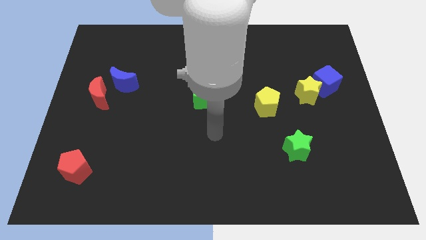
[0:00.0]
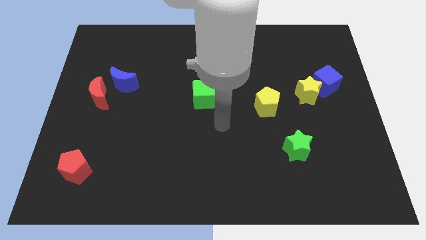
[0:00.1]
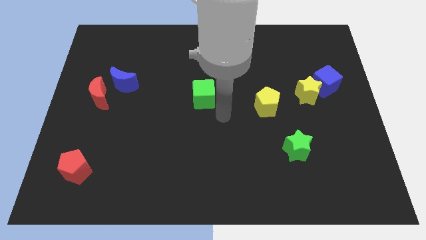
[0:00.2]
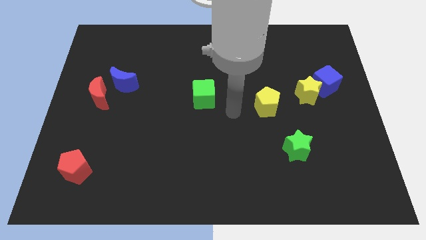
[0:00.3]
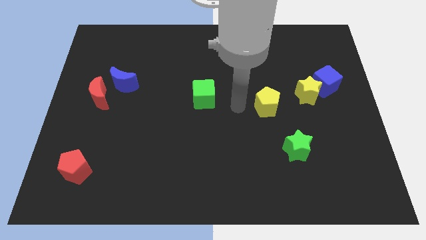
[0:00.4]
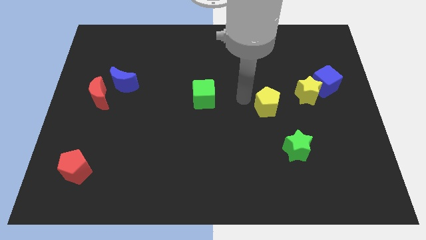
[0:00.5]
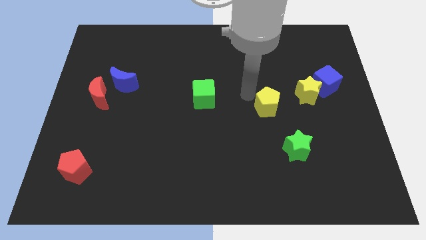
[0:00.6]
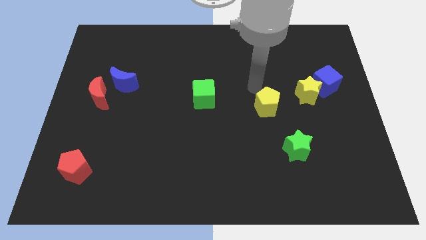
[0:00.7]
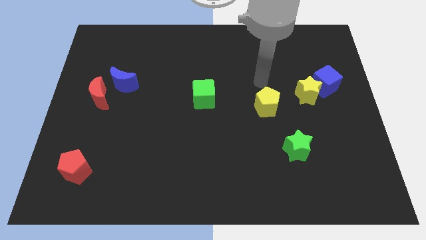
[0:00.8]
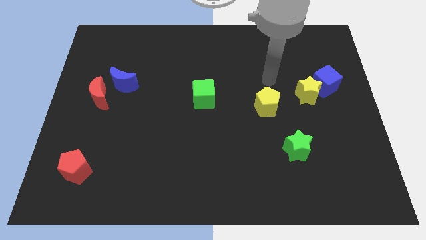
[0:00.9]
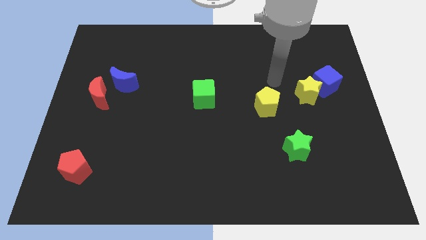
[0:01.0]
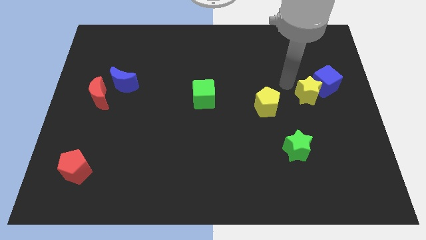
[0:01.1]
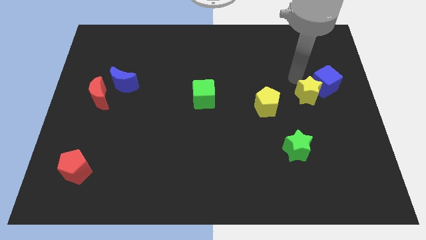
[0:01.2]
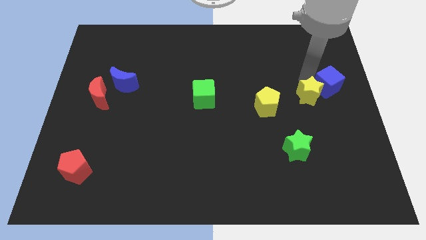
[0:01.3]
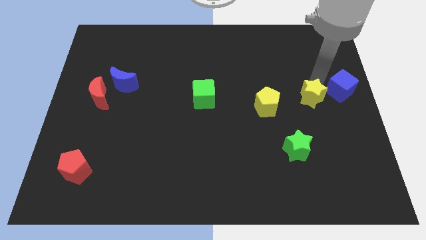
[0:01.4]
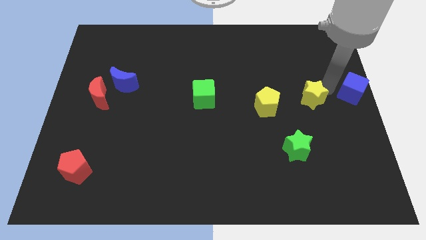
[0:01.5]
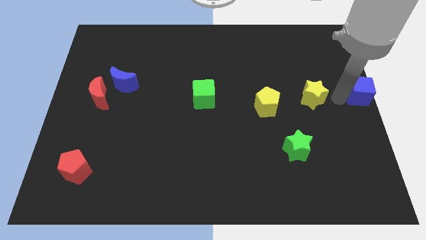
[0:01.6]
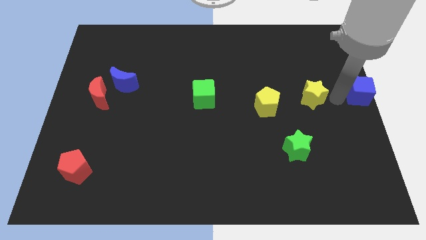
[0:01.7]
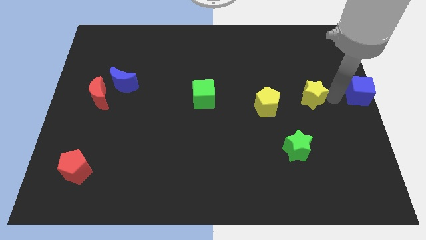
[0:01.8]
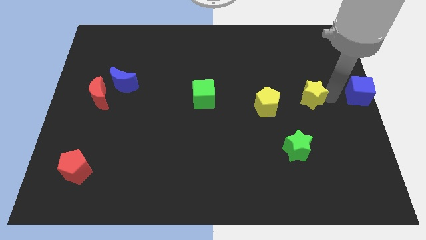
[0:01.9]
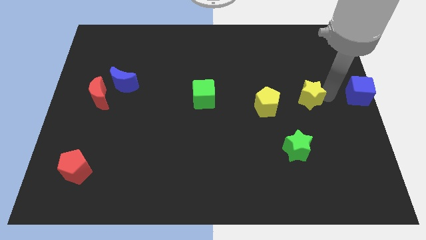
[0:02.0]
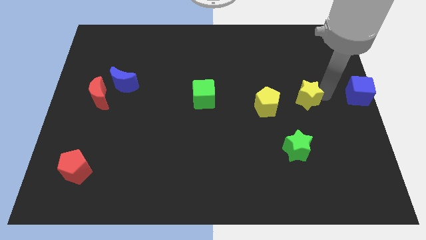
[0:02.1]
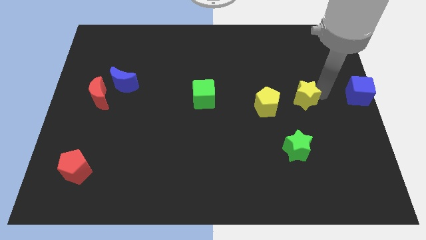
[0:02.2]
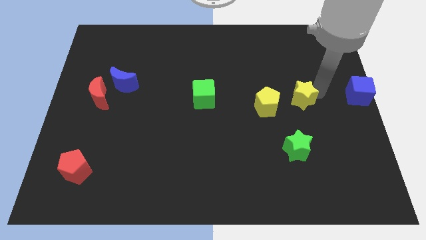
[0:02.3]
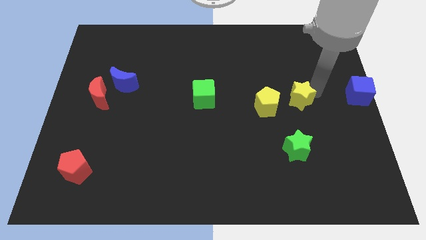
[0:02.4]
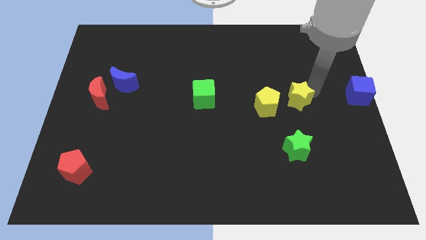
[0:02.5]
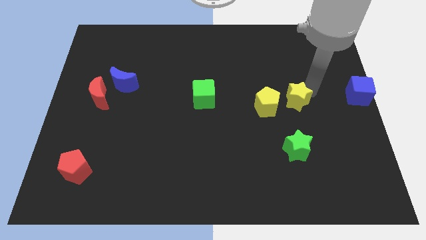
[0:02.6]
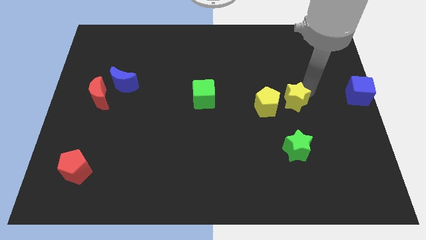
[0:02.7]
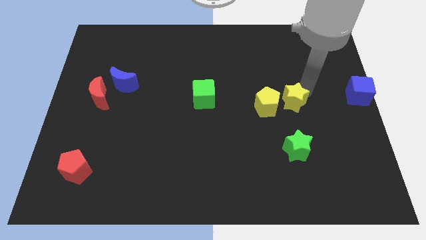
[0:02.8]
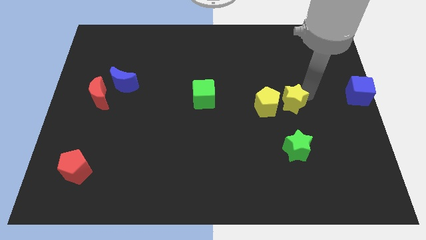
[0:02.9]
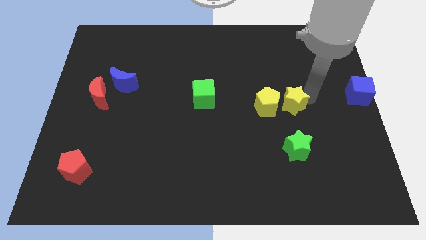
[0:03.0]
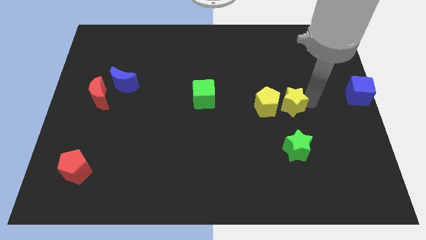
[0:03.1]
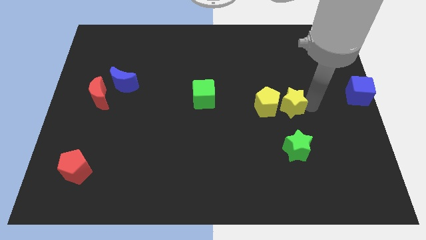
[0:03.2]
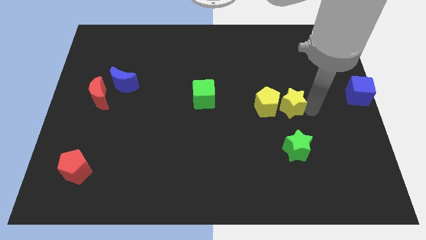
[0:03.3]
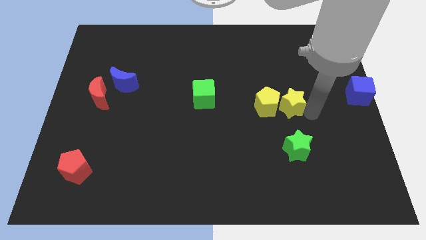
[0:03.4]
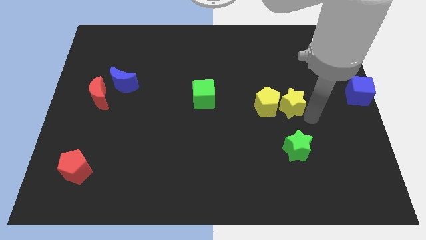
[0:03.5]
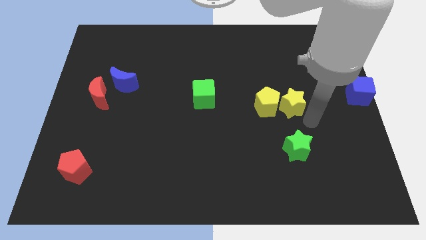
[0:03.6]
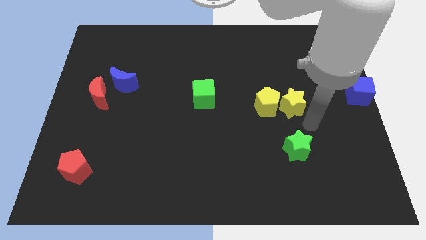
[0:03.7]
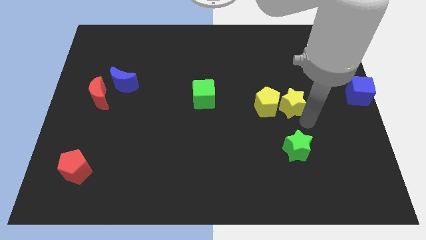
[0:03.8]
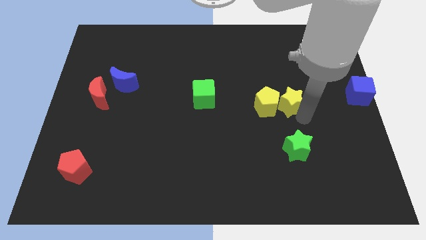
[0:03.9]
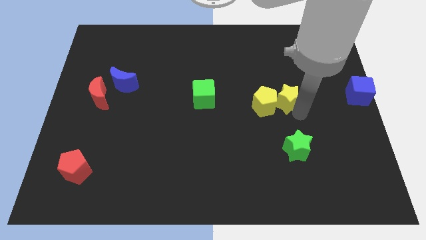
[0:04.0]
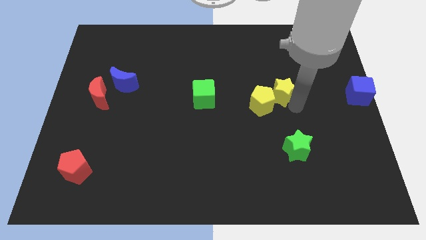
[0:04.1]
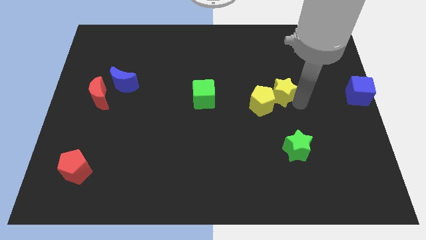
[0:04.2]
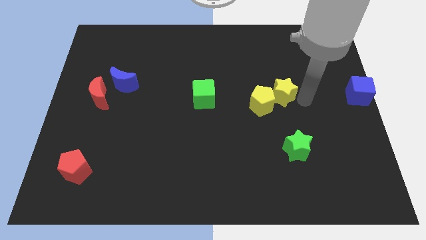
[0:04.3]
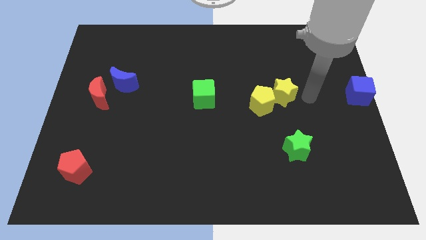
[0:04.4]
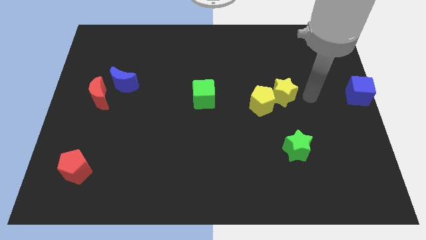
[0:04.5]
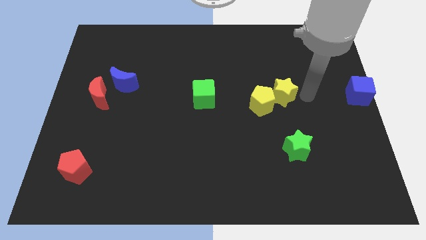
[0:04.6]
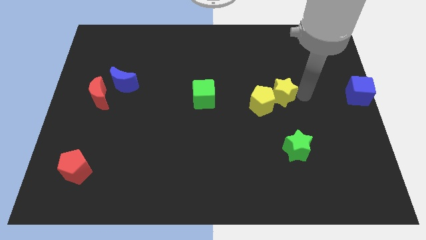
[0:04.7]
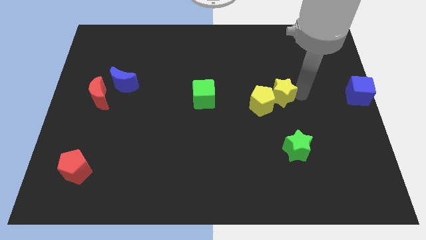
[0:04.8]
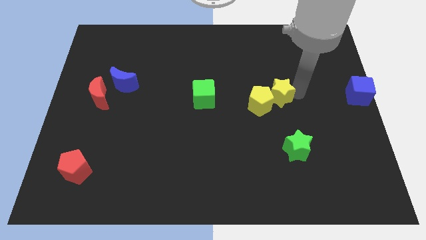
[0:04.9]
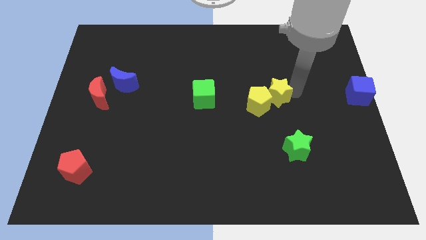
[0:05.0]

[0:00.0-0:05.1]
slightly slide the yellow star to the left

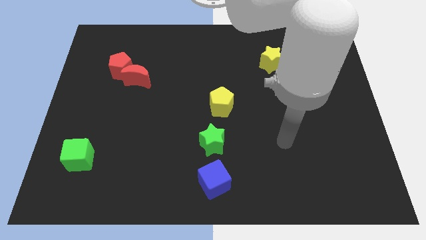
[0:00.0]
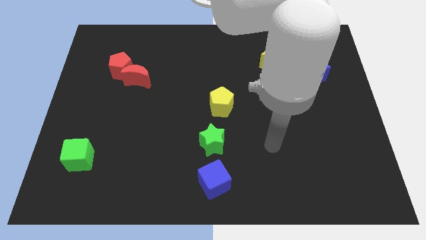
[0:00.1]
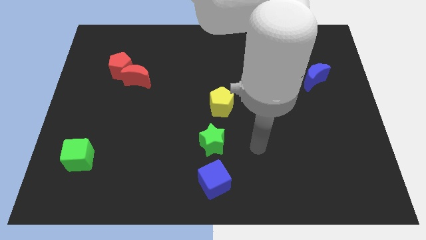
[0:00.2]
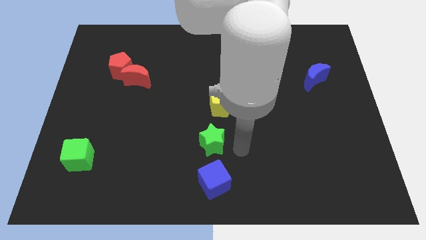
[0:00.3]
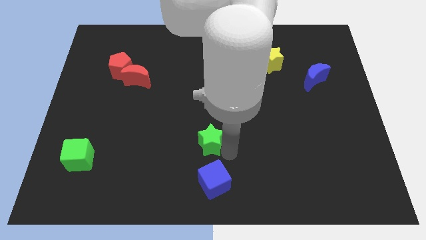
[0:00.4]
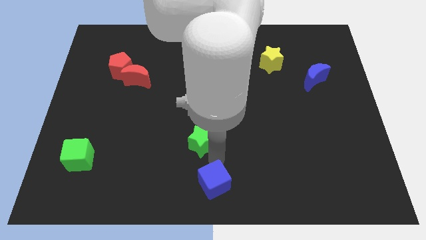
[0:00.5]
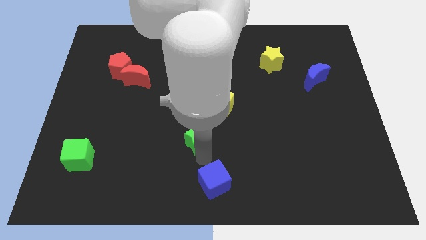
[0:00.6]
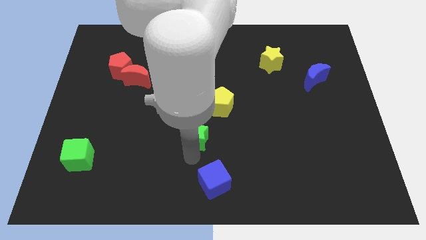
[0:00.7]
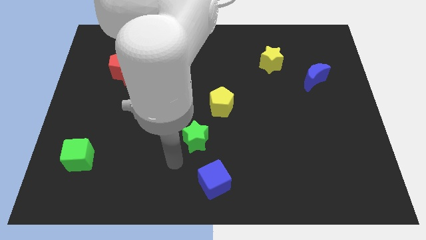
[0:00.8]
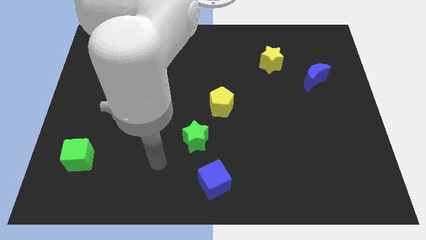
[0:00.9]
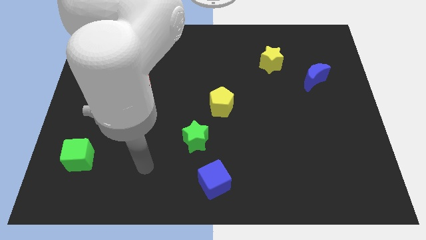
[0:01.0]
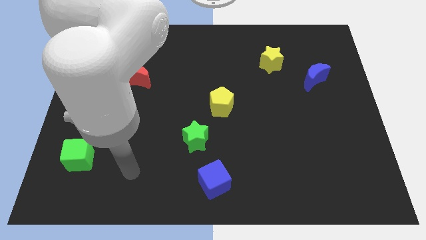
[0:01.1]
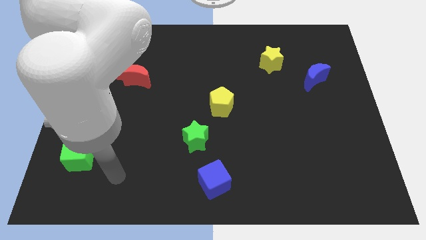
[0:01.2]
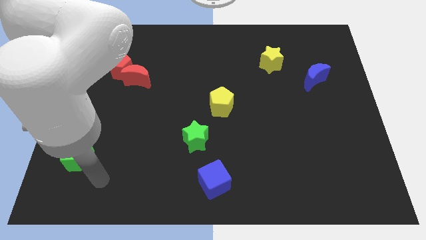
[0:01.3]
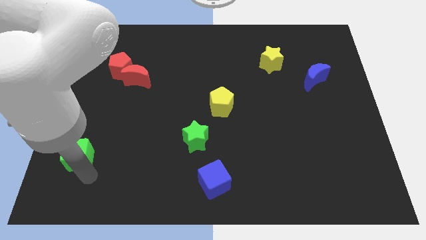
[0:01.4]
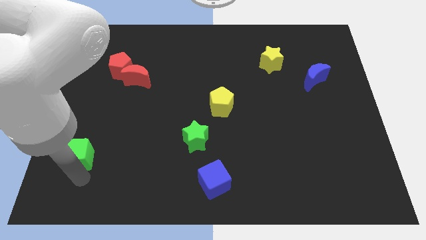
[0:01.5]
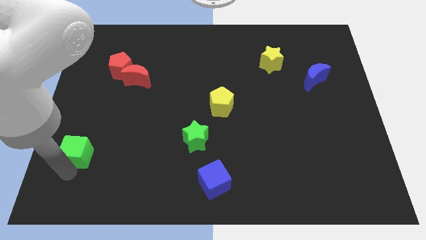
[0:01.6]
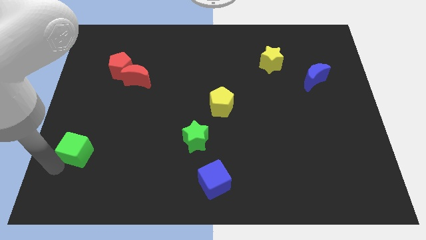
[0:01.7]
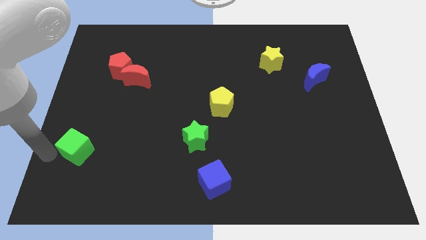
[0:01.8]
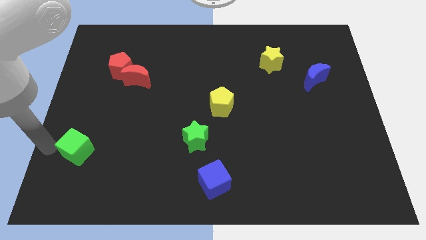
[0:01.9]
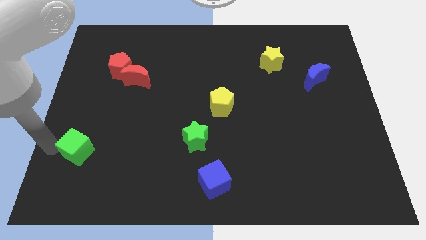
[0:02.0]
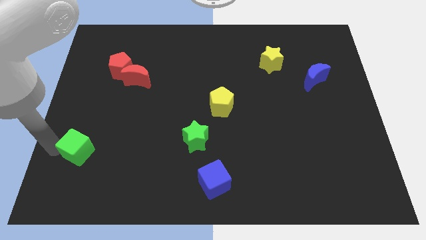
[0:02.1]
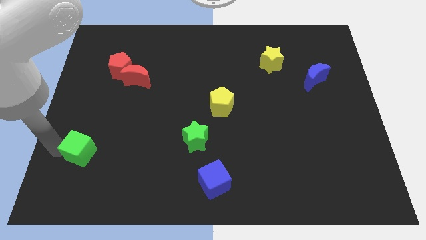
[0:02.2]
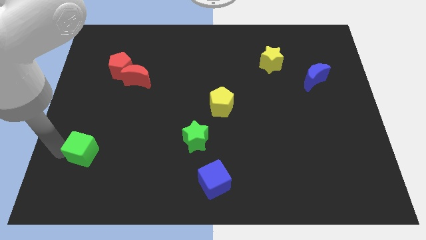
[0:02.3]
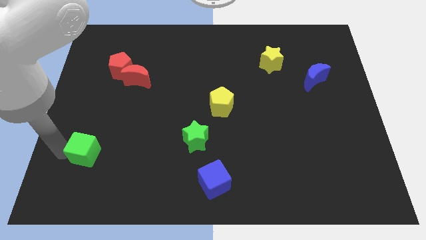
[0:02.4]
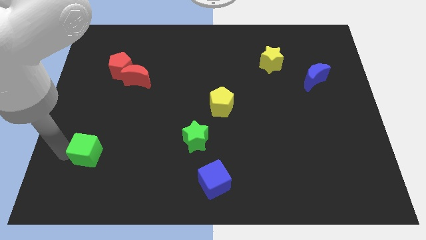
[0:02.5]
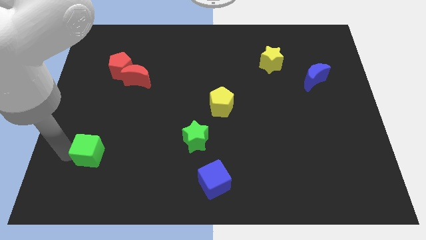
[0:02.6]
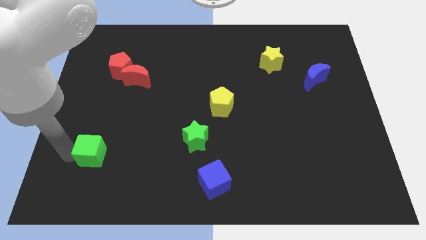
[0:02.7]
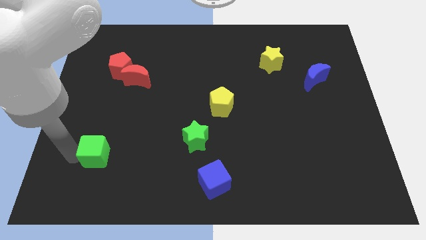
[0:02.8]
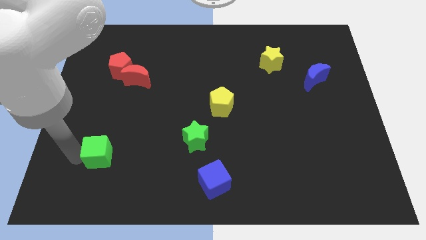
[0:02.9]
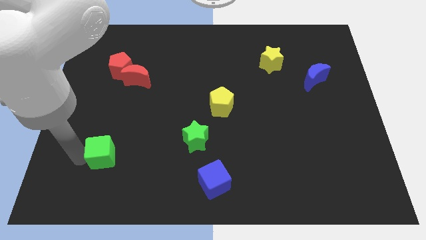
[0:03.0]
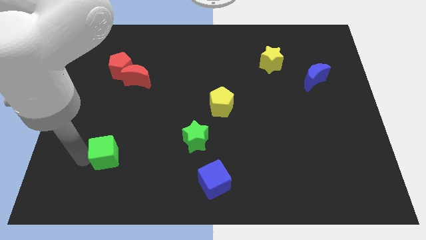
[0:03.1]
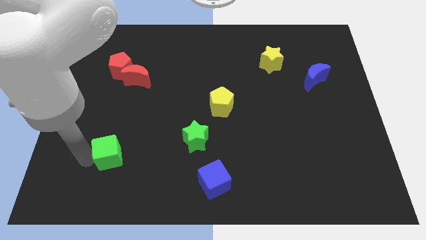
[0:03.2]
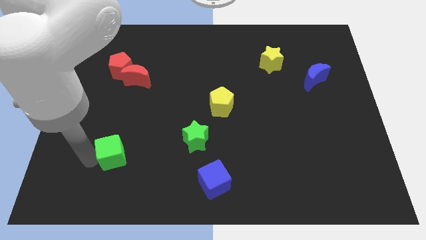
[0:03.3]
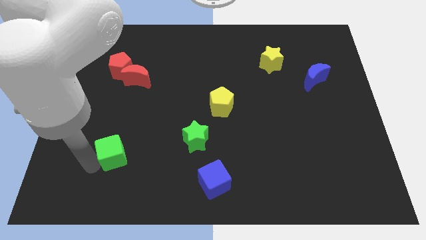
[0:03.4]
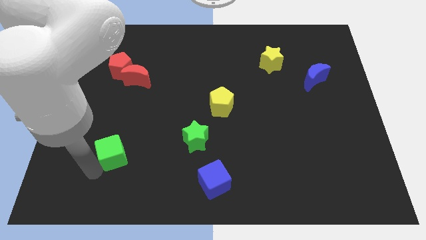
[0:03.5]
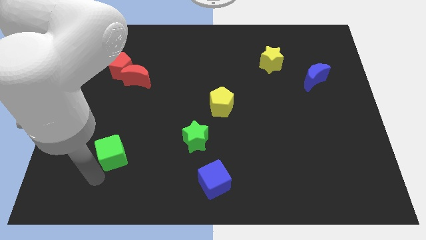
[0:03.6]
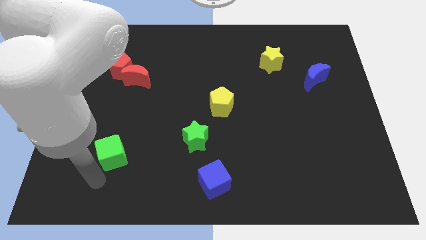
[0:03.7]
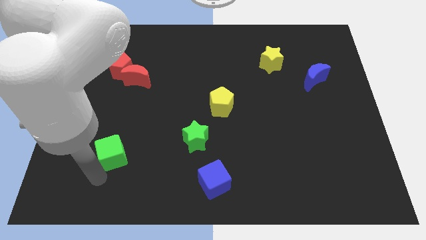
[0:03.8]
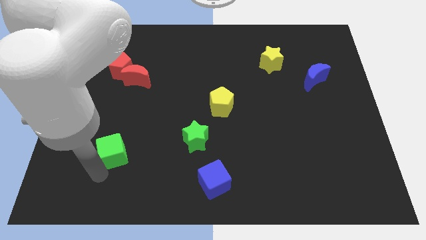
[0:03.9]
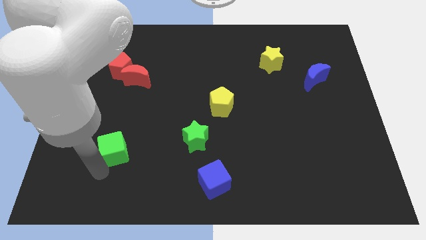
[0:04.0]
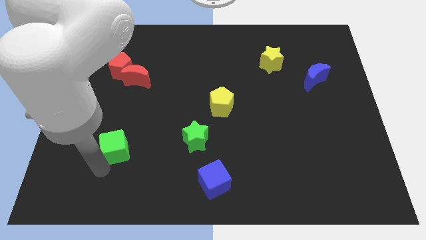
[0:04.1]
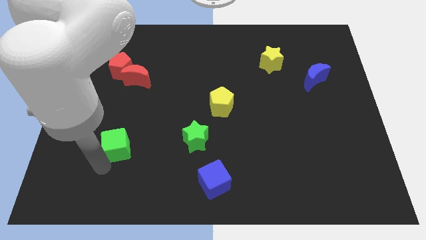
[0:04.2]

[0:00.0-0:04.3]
slightly move the green cube upwards and right
